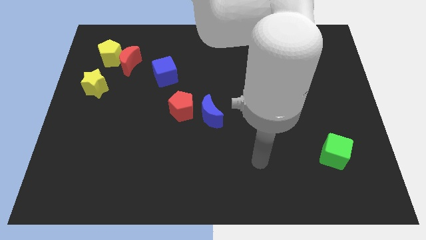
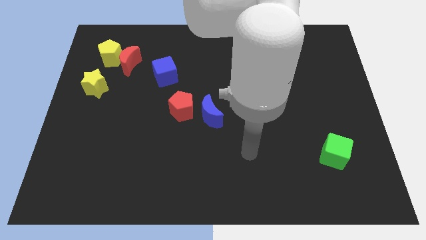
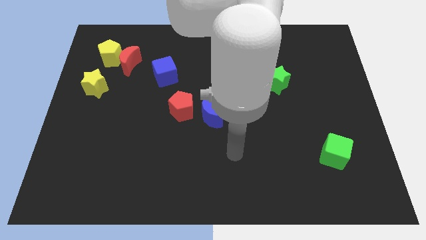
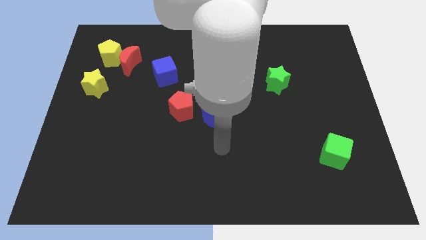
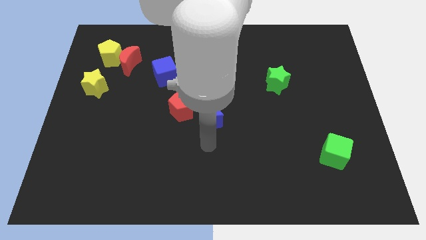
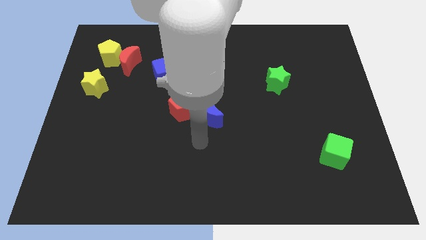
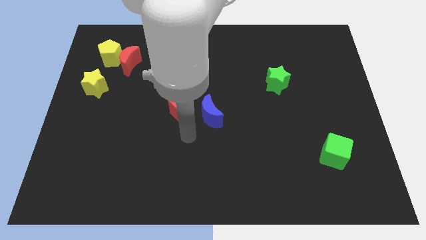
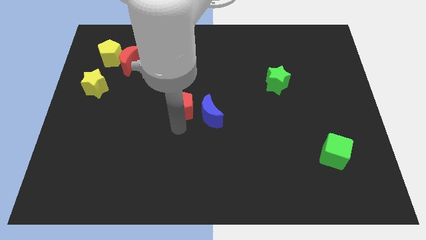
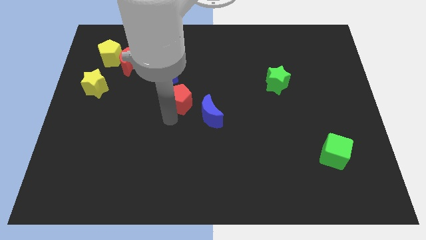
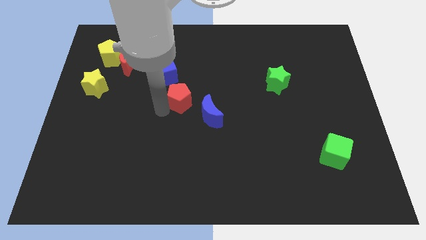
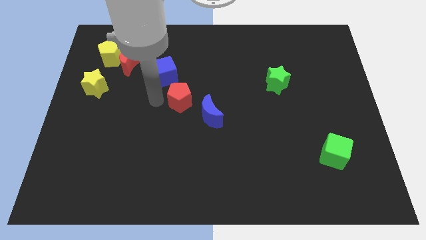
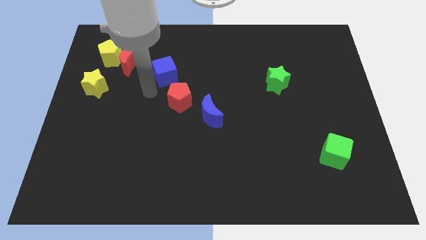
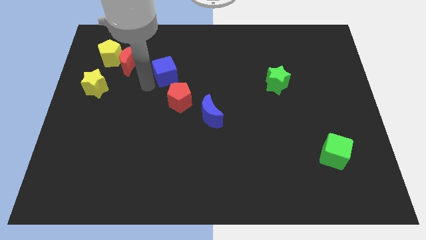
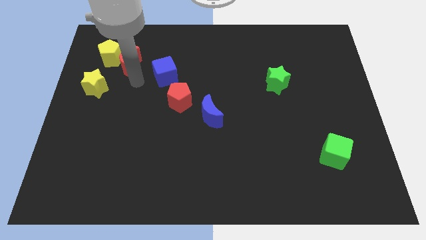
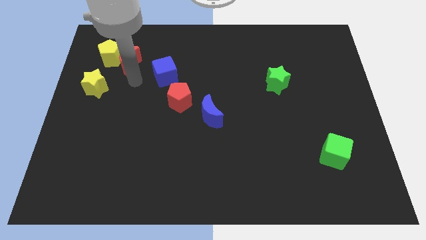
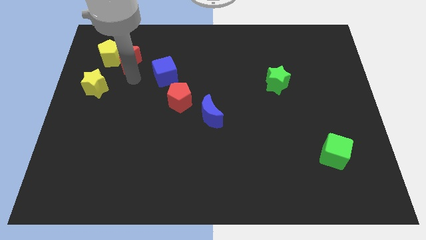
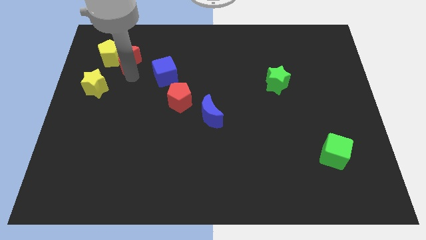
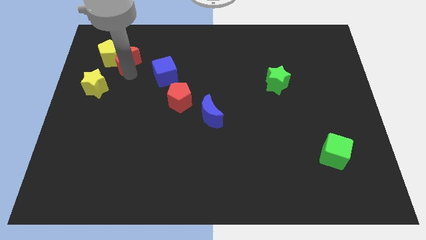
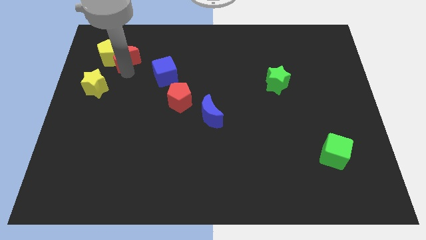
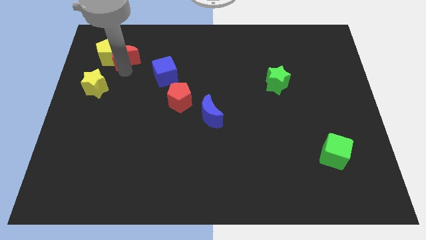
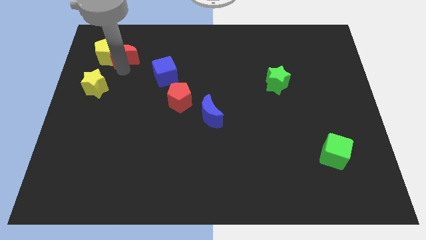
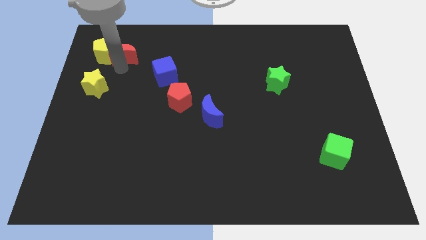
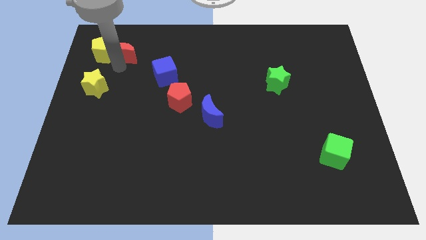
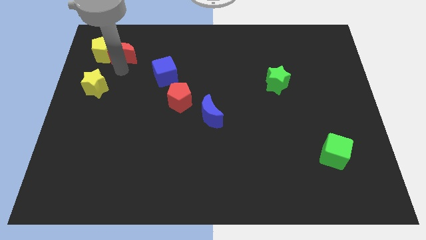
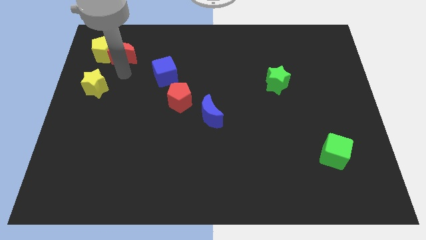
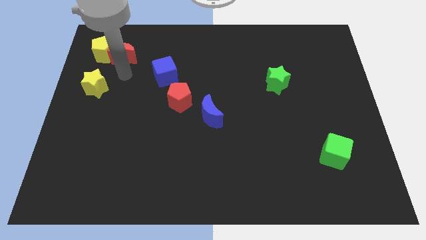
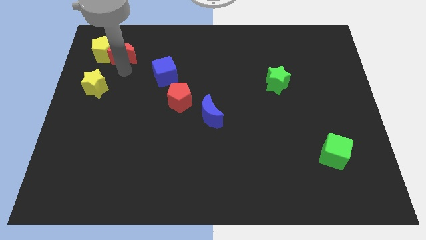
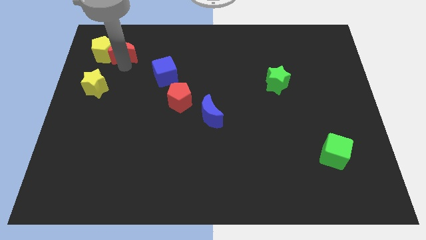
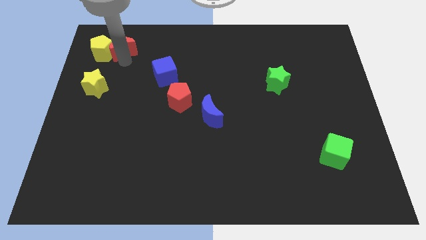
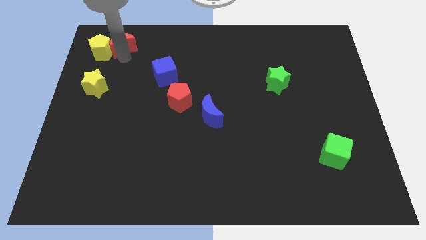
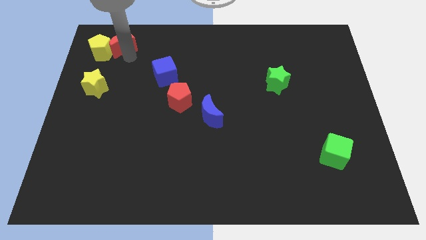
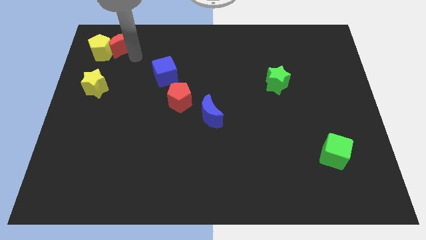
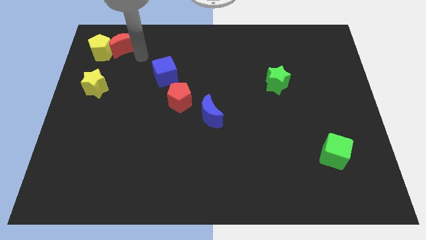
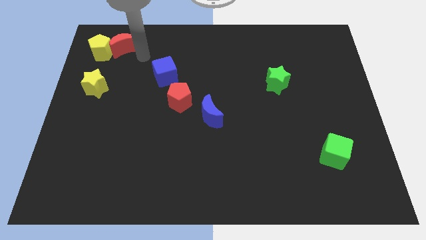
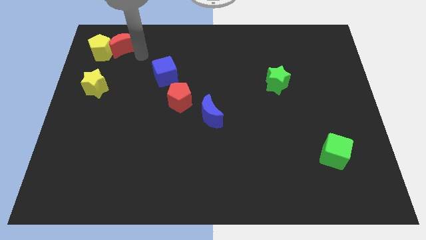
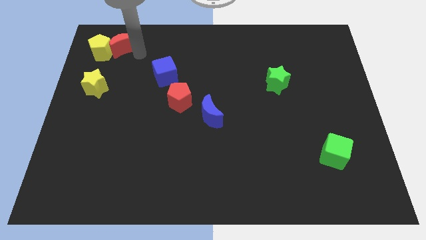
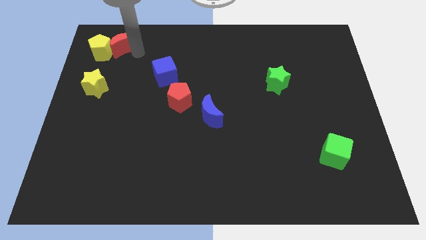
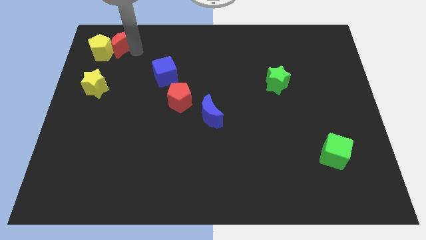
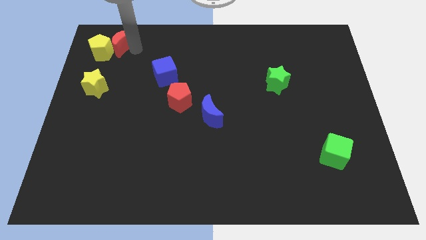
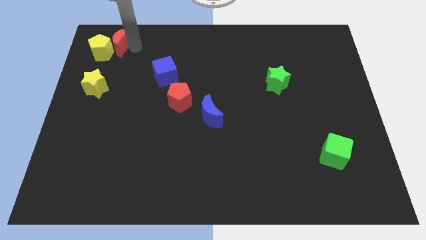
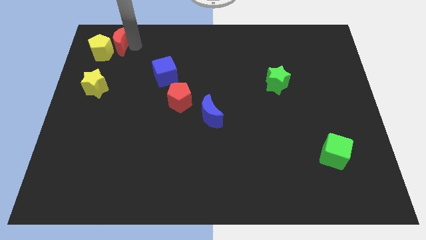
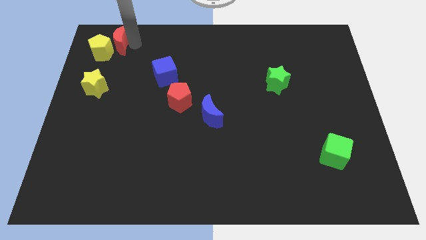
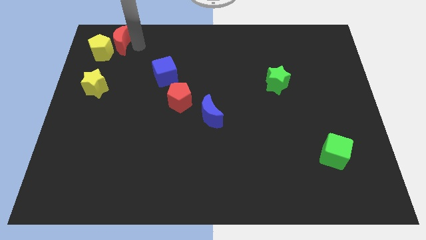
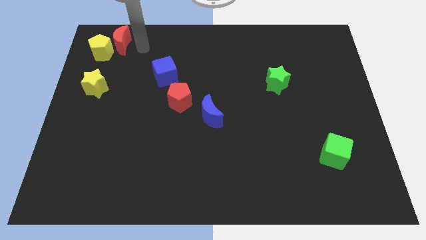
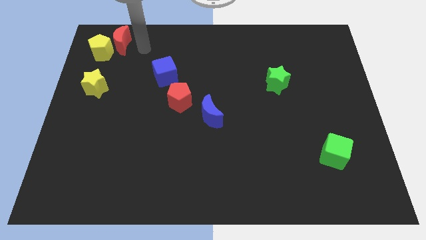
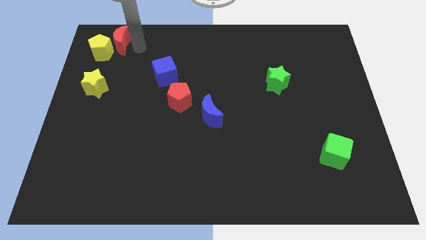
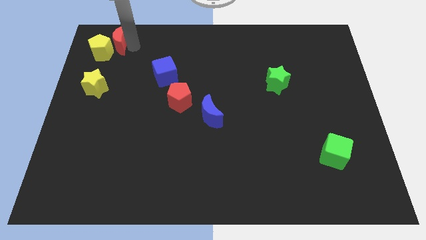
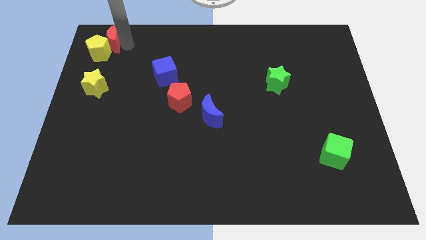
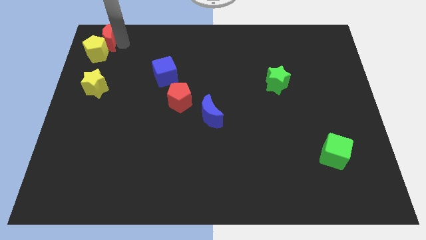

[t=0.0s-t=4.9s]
move the red moon to the top left

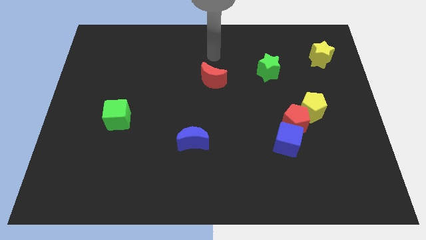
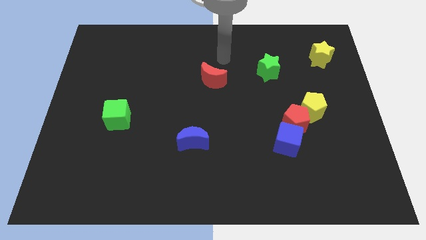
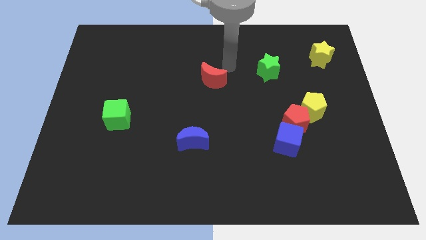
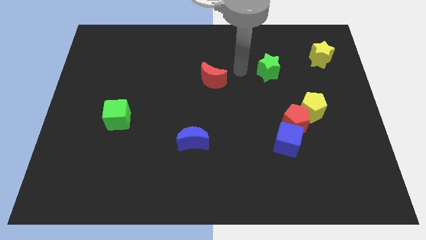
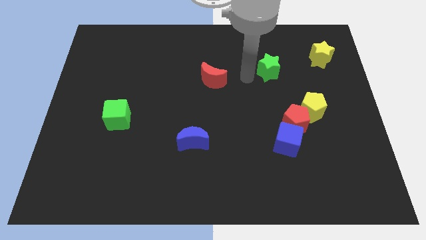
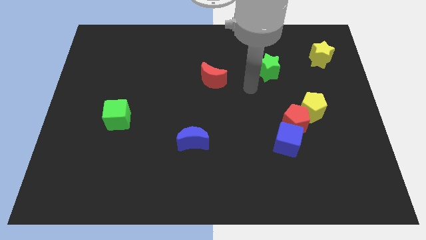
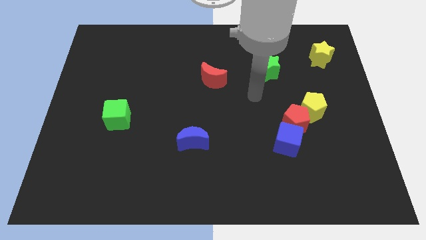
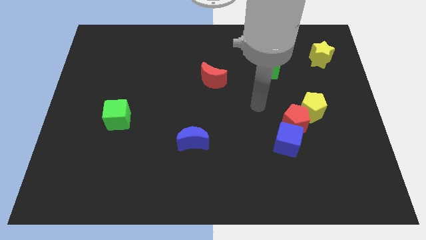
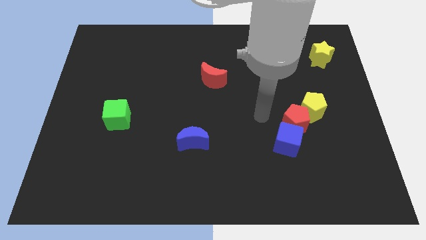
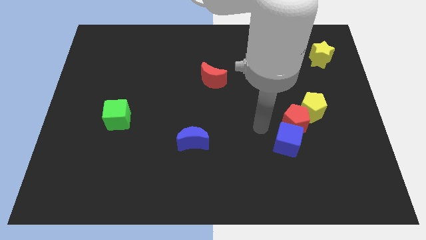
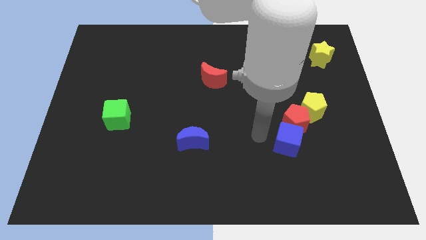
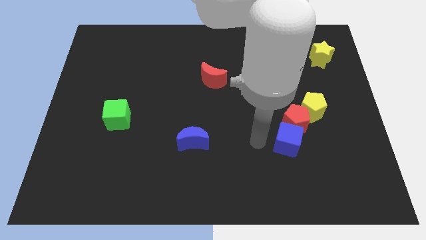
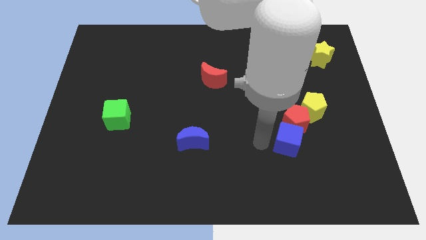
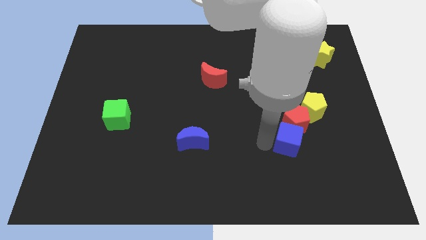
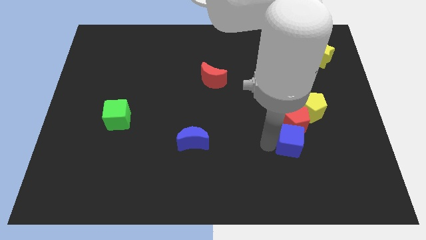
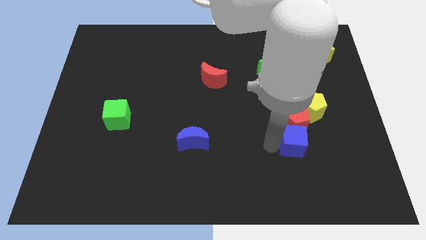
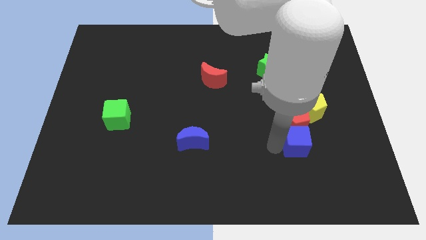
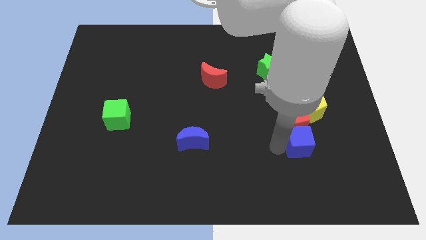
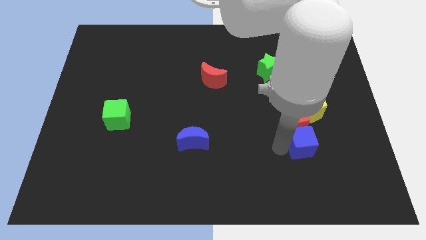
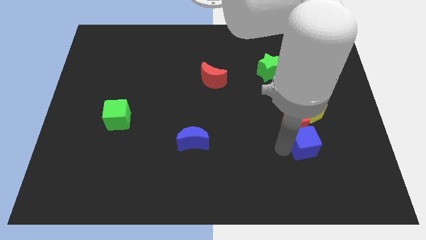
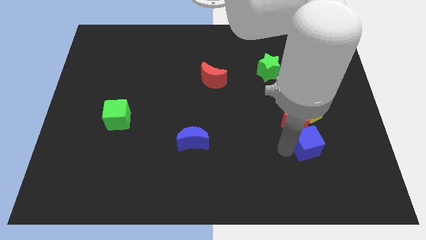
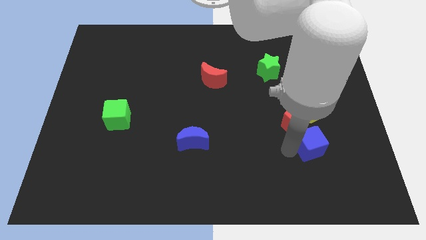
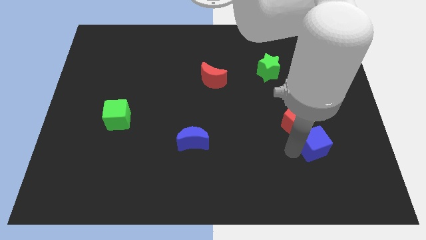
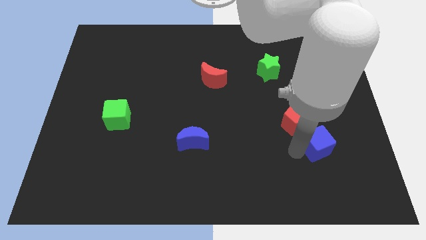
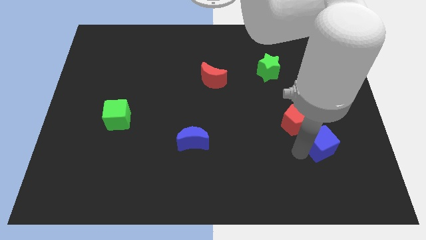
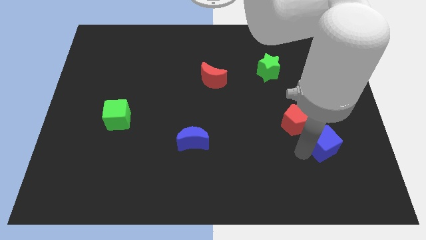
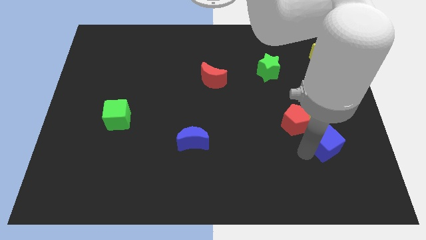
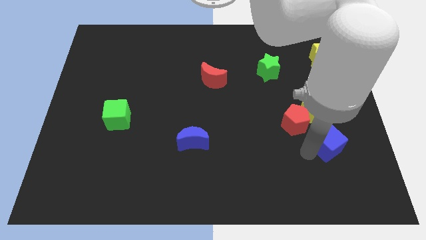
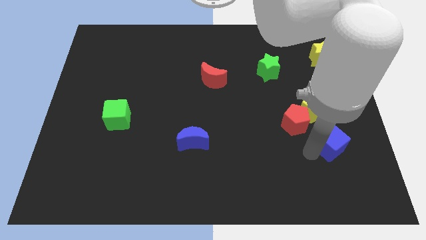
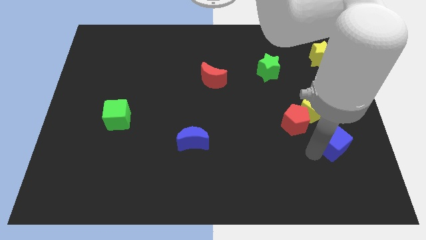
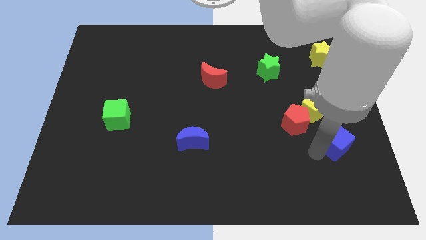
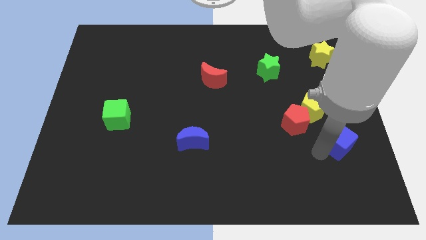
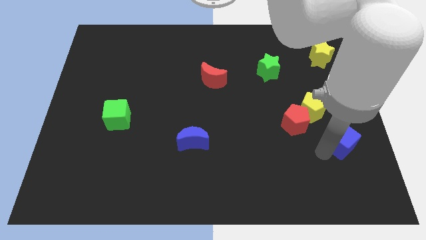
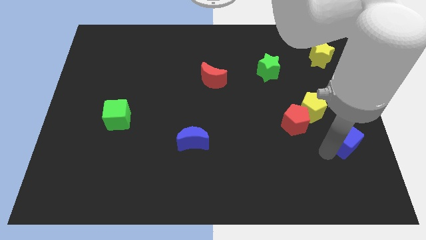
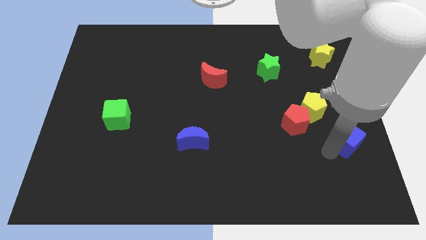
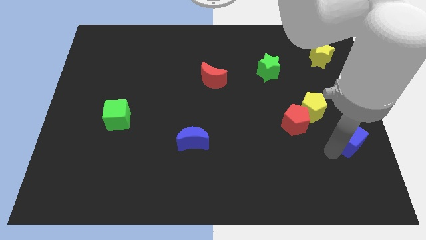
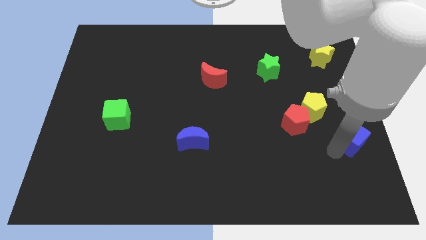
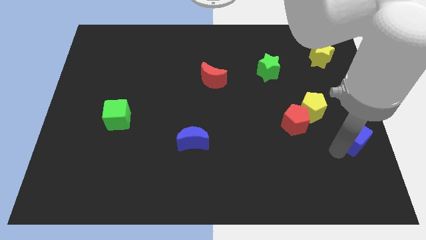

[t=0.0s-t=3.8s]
push the blue cube to the center right
